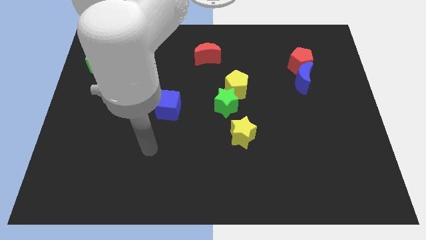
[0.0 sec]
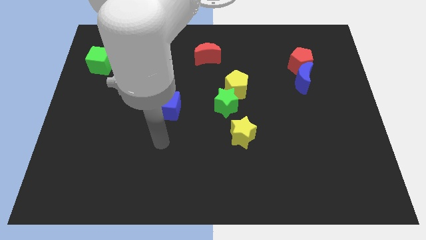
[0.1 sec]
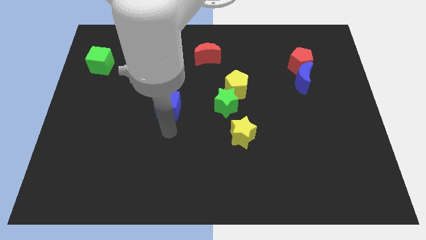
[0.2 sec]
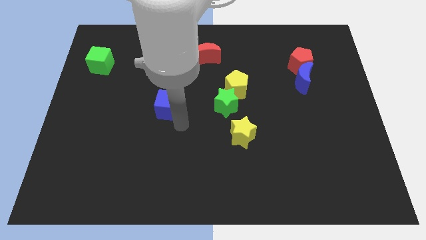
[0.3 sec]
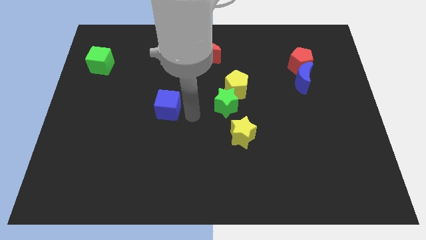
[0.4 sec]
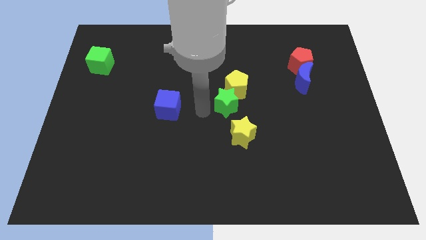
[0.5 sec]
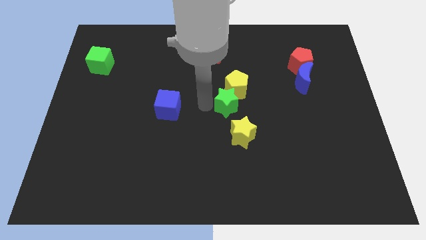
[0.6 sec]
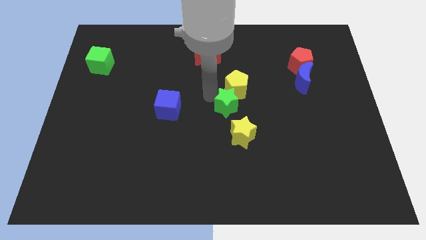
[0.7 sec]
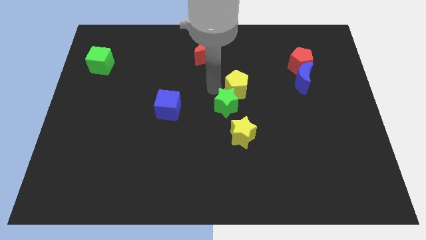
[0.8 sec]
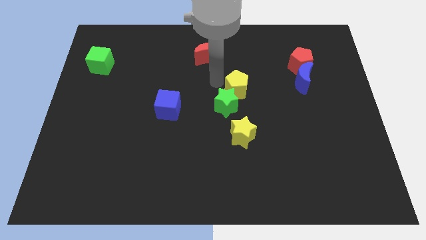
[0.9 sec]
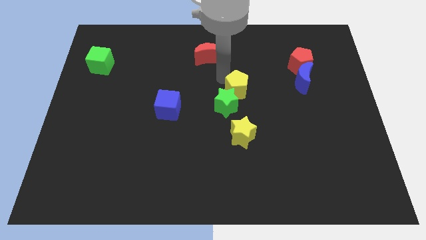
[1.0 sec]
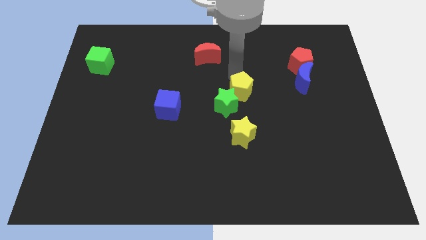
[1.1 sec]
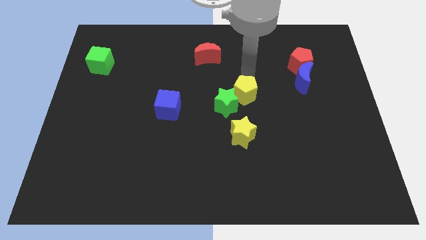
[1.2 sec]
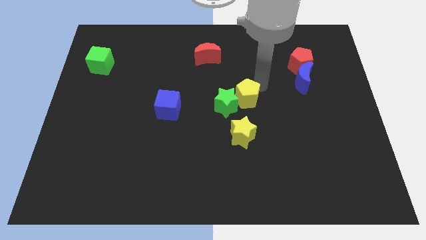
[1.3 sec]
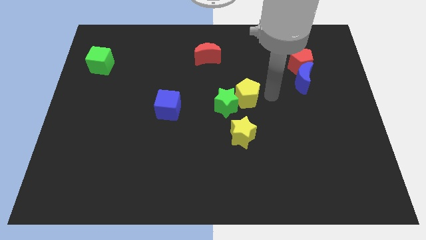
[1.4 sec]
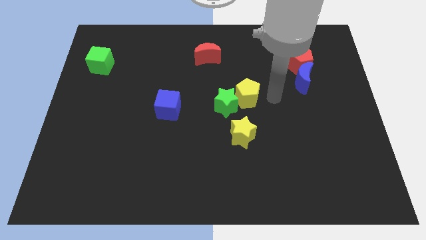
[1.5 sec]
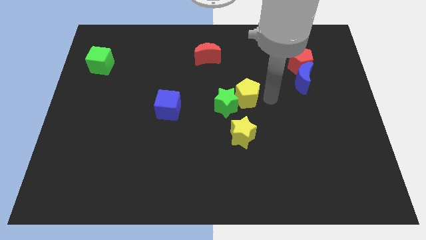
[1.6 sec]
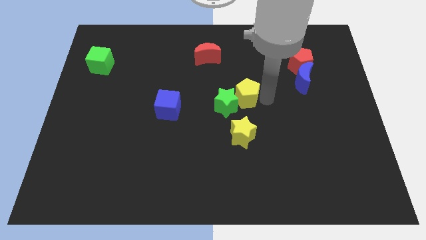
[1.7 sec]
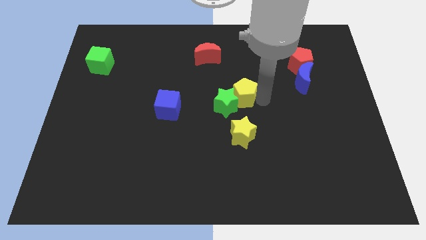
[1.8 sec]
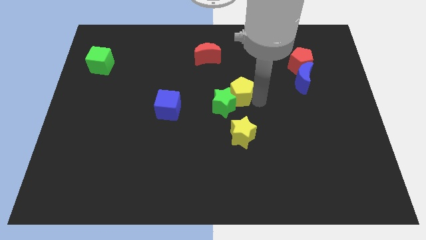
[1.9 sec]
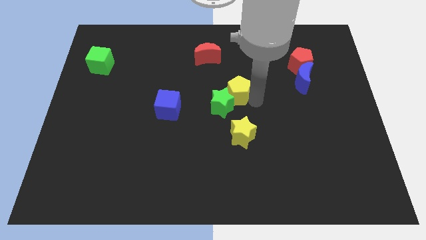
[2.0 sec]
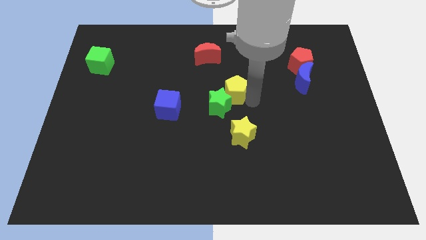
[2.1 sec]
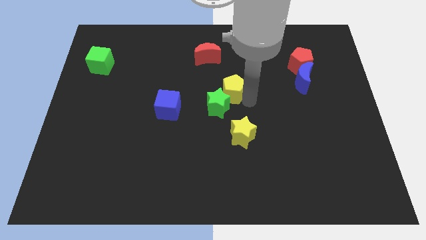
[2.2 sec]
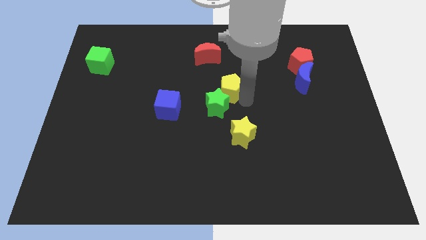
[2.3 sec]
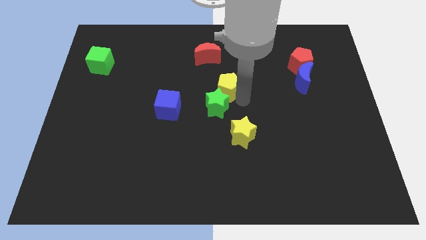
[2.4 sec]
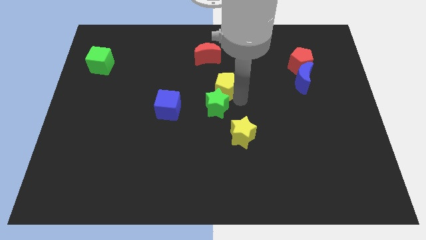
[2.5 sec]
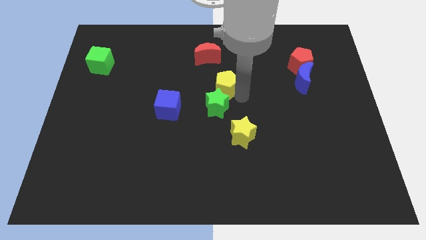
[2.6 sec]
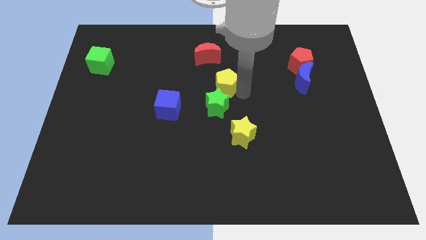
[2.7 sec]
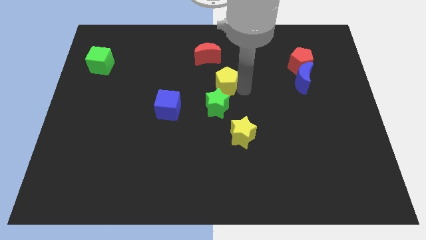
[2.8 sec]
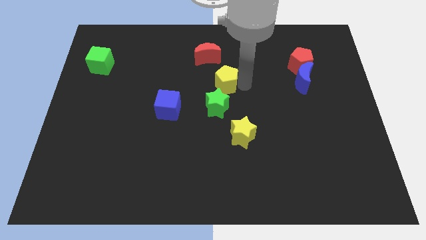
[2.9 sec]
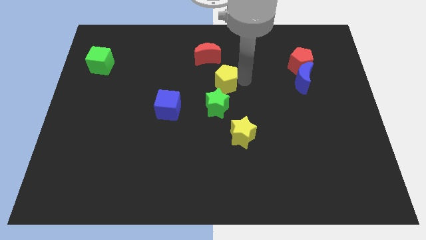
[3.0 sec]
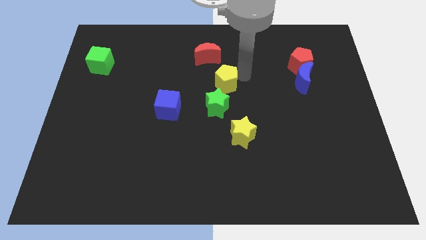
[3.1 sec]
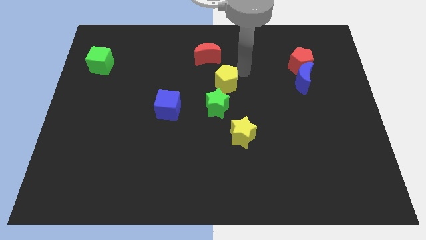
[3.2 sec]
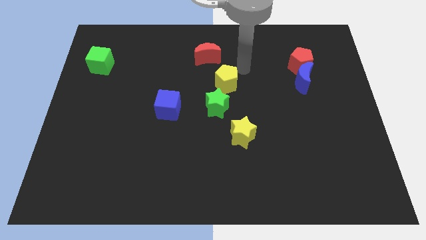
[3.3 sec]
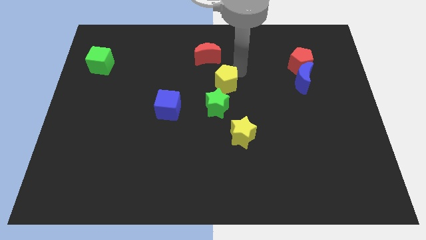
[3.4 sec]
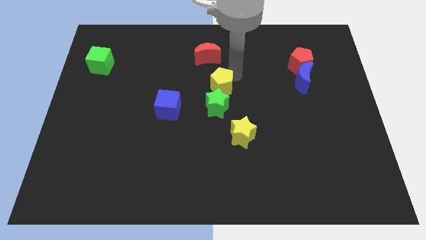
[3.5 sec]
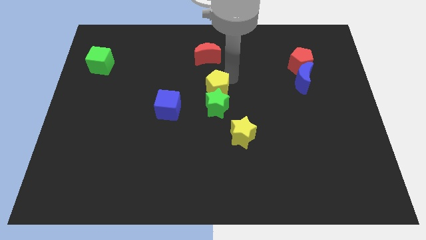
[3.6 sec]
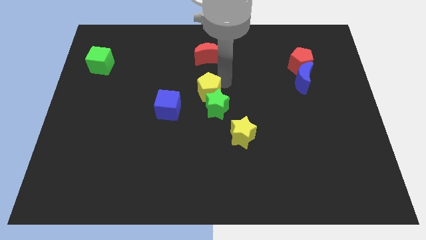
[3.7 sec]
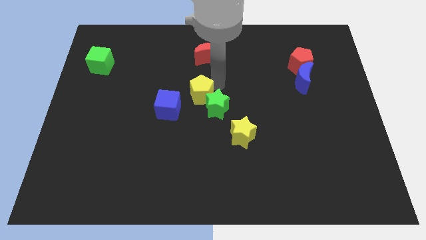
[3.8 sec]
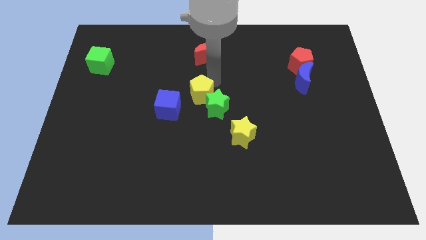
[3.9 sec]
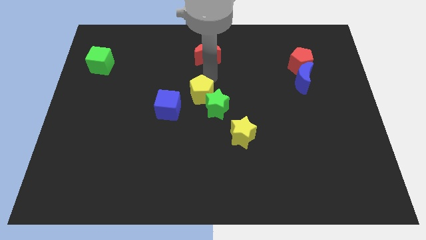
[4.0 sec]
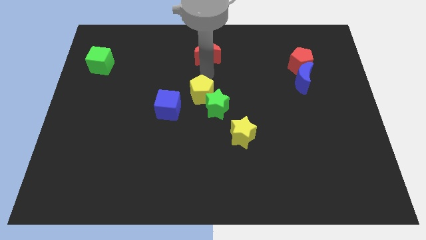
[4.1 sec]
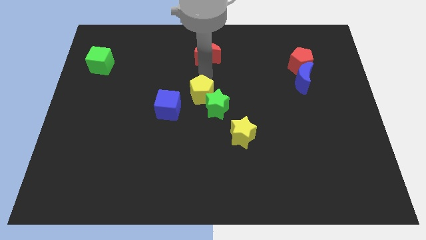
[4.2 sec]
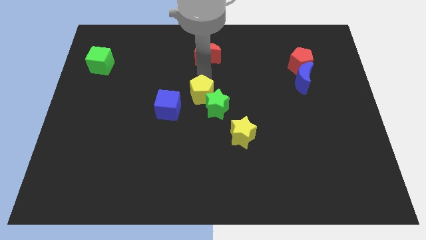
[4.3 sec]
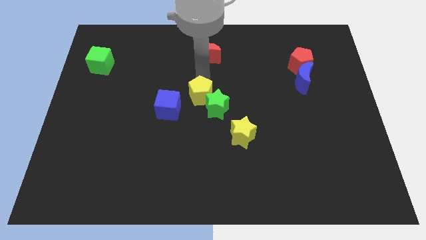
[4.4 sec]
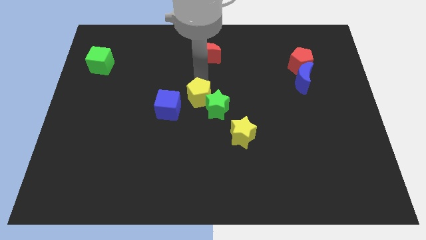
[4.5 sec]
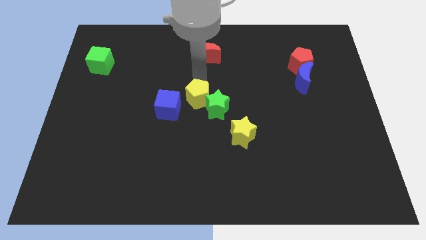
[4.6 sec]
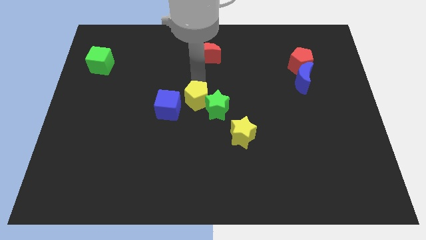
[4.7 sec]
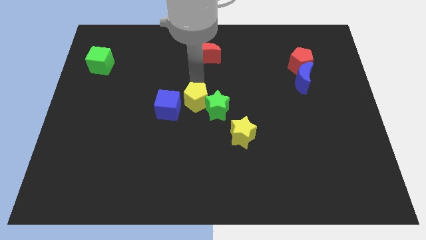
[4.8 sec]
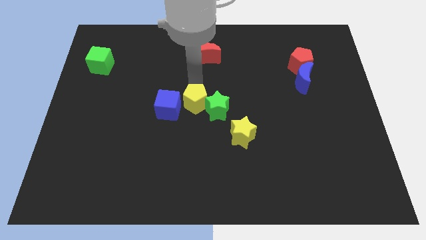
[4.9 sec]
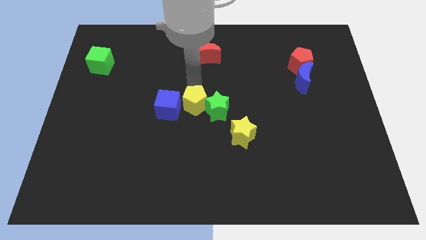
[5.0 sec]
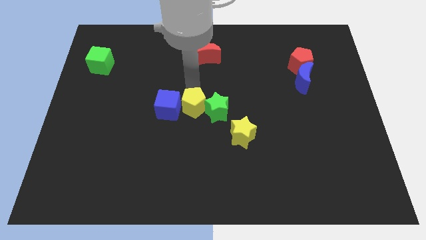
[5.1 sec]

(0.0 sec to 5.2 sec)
push the yellow pentagon diagonally down and to the right of the blue cube

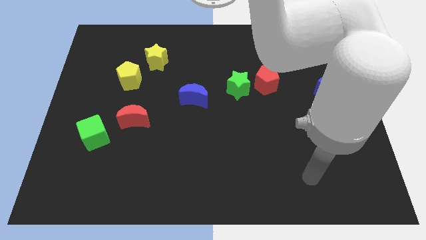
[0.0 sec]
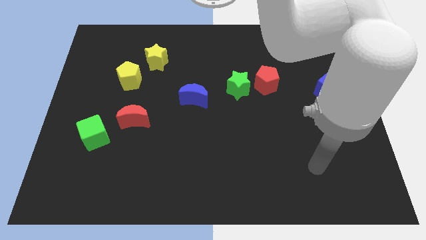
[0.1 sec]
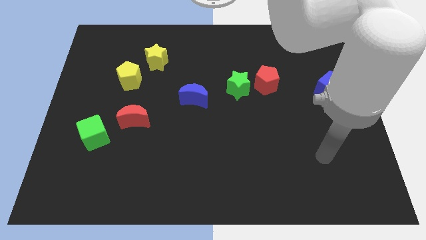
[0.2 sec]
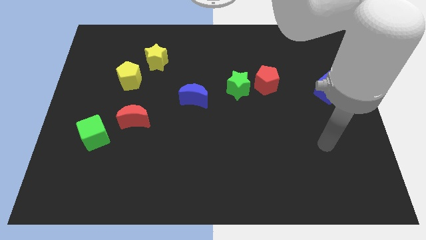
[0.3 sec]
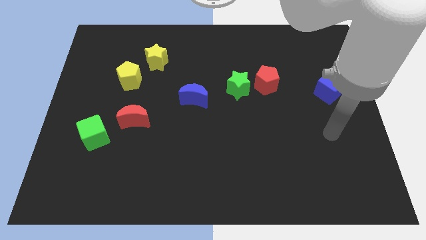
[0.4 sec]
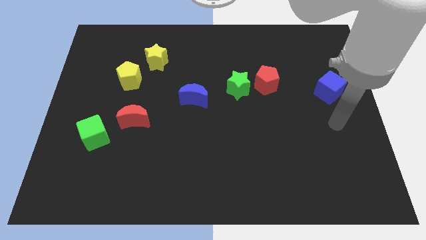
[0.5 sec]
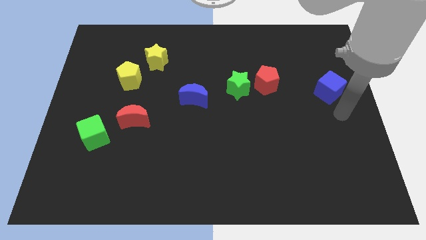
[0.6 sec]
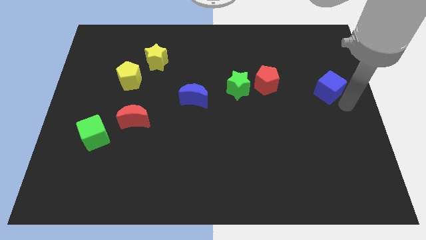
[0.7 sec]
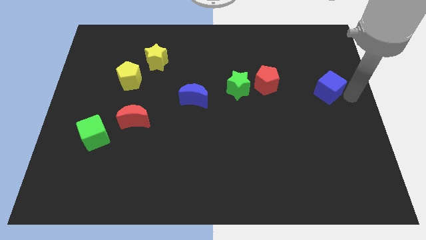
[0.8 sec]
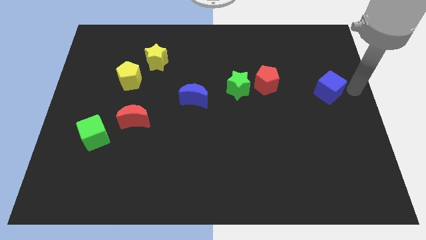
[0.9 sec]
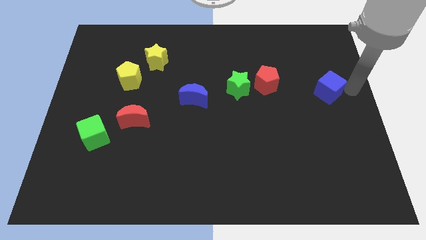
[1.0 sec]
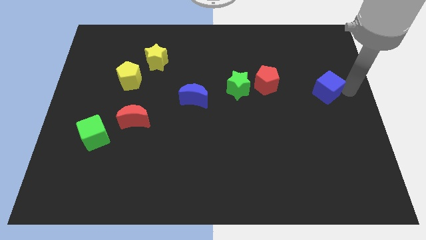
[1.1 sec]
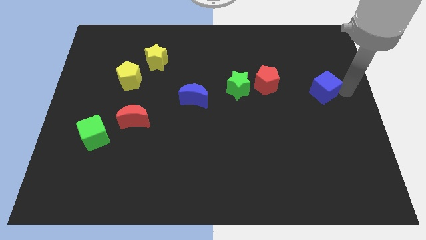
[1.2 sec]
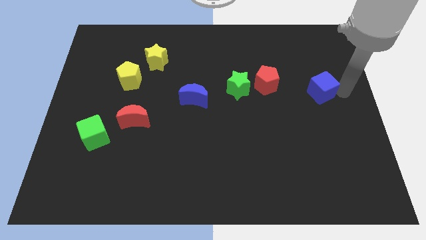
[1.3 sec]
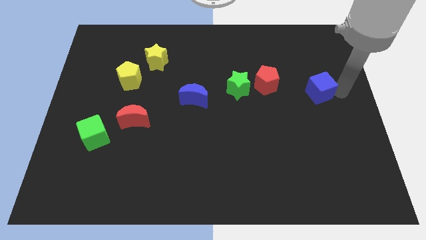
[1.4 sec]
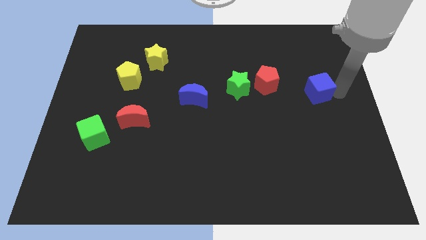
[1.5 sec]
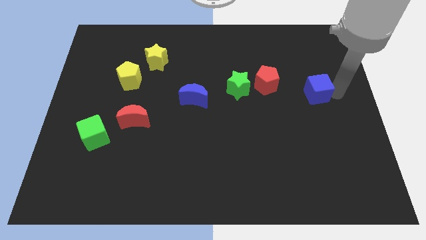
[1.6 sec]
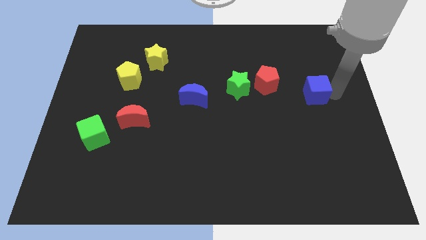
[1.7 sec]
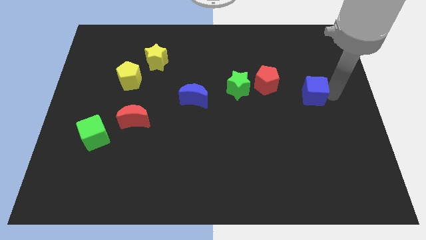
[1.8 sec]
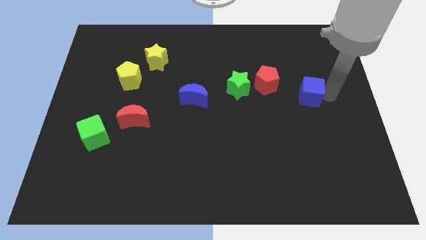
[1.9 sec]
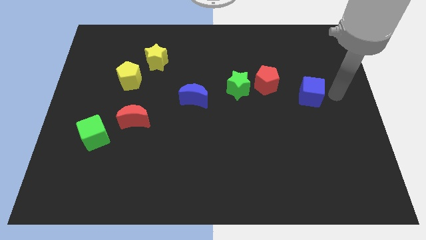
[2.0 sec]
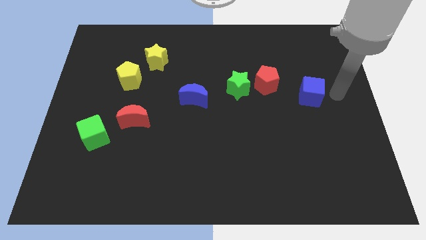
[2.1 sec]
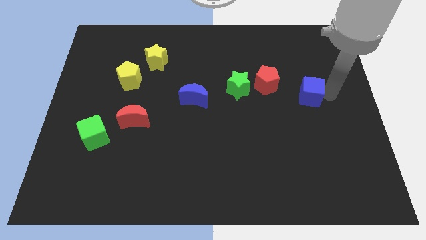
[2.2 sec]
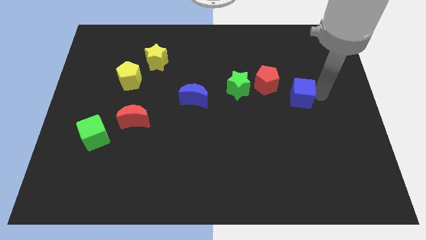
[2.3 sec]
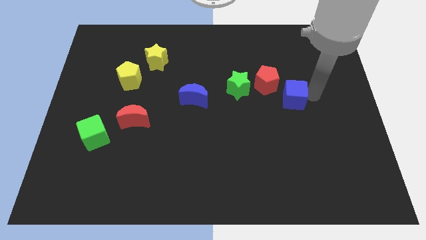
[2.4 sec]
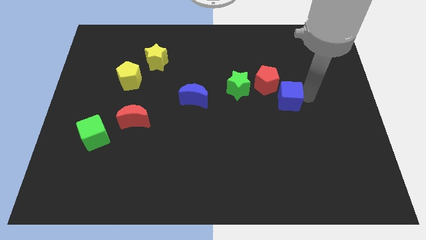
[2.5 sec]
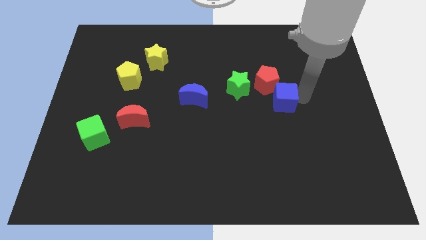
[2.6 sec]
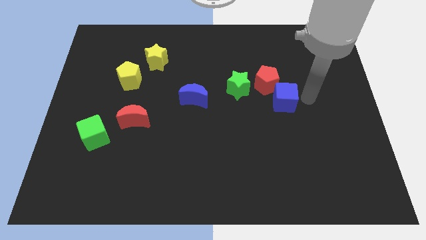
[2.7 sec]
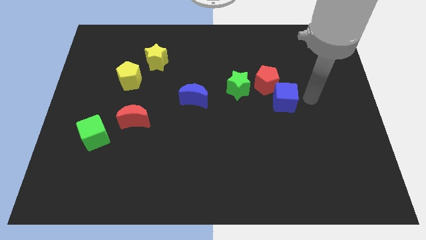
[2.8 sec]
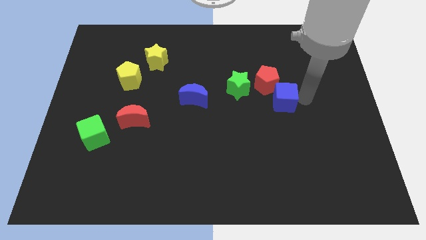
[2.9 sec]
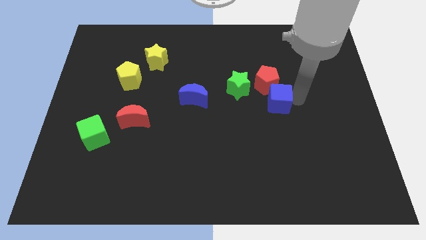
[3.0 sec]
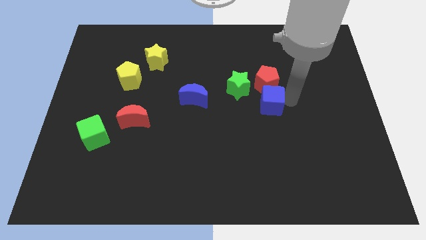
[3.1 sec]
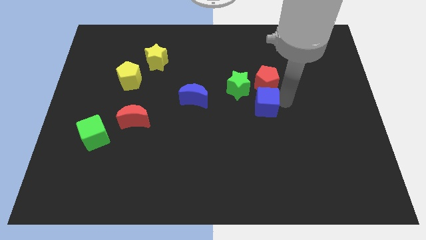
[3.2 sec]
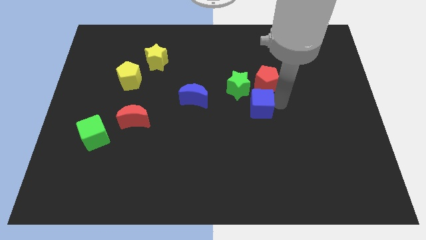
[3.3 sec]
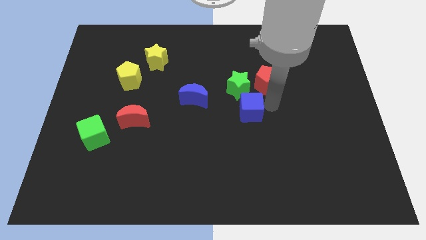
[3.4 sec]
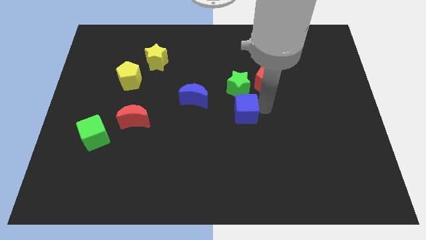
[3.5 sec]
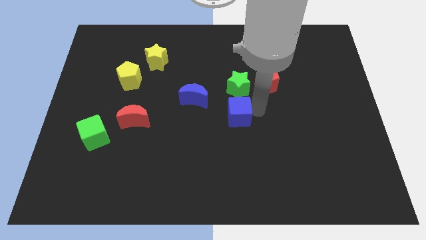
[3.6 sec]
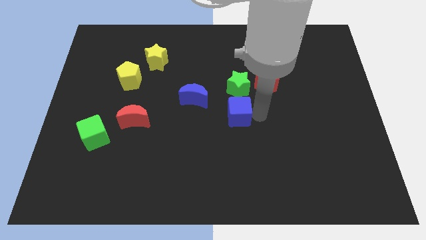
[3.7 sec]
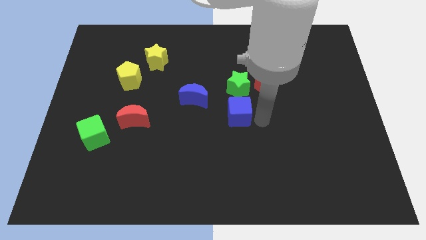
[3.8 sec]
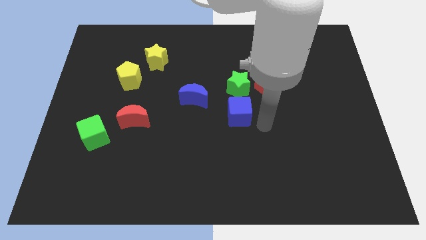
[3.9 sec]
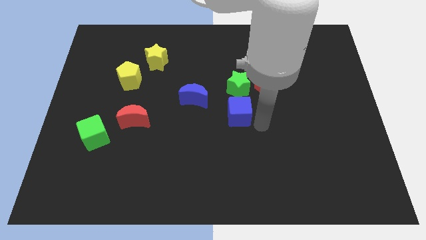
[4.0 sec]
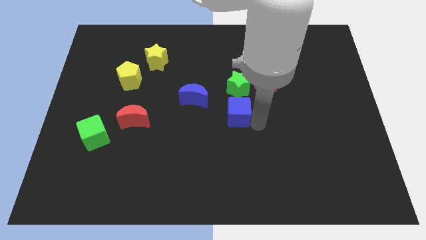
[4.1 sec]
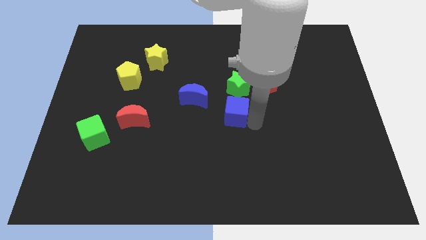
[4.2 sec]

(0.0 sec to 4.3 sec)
slide the blue cube diagonally down and to the left of the green star
